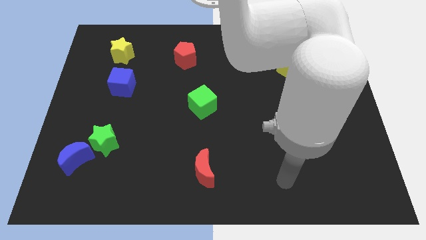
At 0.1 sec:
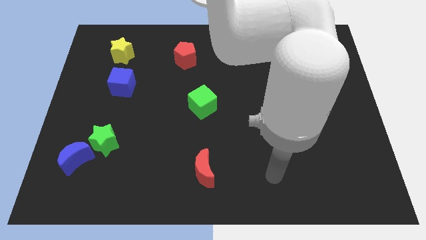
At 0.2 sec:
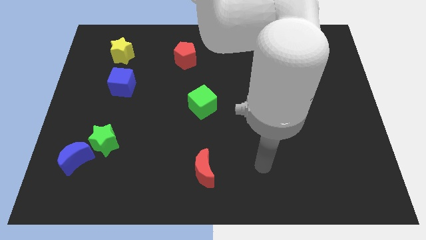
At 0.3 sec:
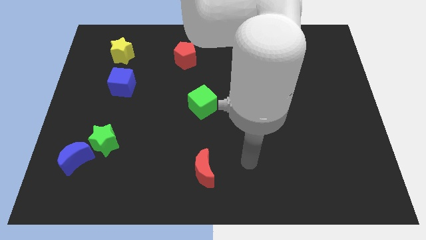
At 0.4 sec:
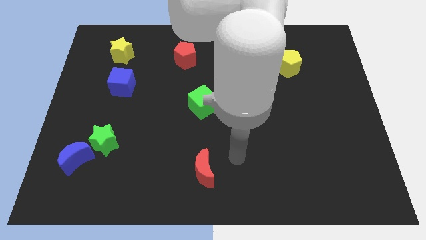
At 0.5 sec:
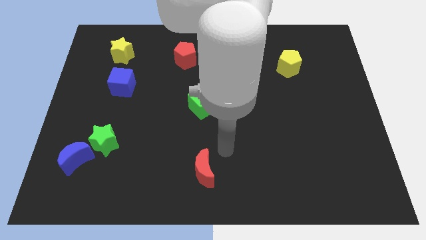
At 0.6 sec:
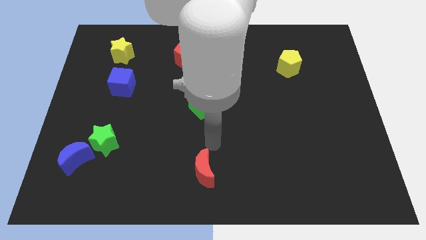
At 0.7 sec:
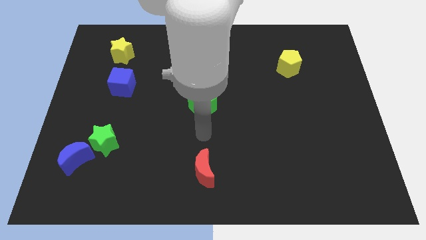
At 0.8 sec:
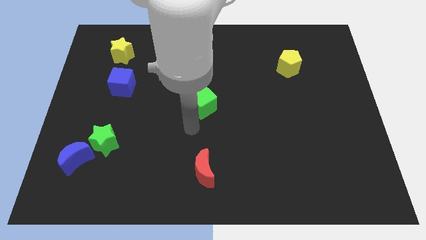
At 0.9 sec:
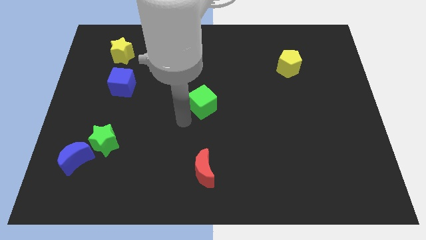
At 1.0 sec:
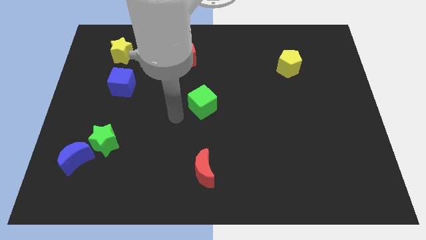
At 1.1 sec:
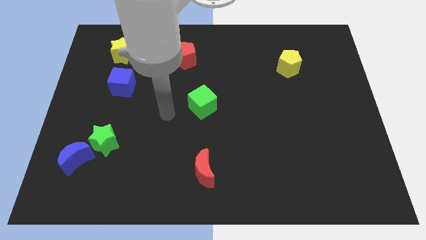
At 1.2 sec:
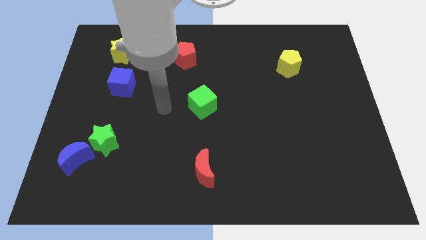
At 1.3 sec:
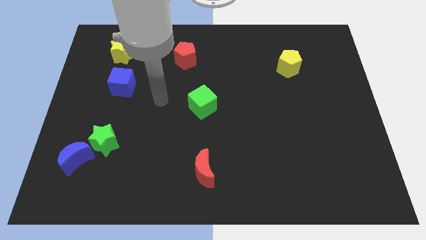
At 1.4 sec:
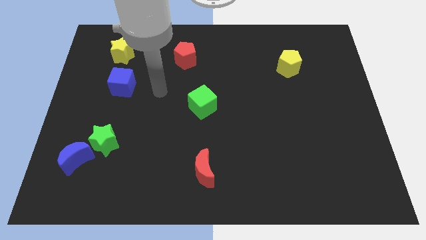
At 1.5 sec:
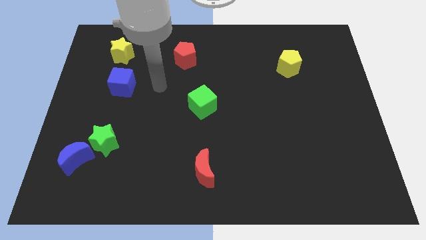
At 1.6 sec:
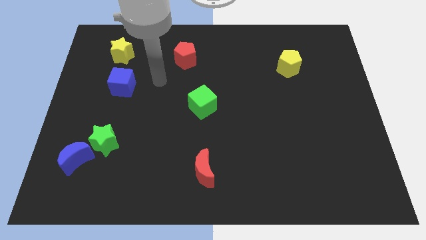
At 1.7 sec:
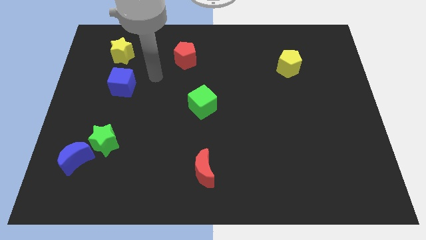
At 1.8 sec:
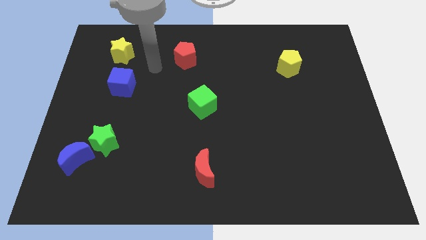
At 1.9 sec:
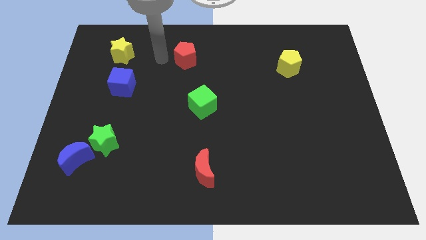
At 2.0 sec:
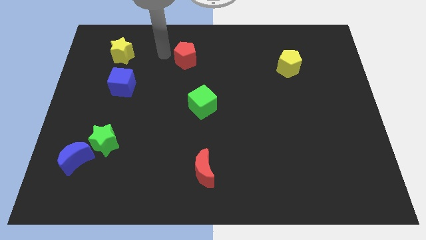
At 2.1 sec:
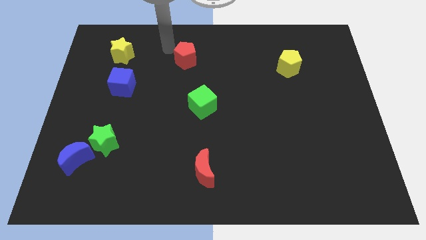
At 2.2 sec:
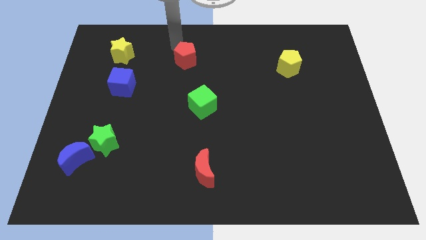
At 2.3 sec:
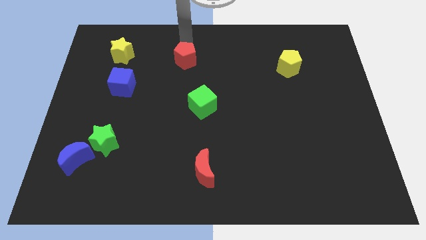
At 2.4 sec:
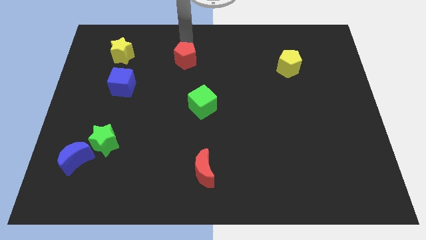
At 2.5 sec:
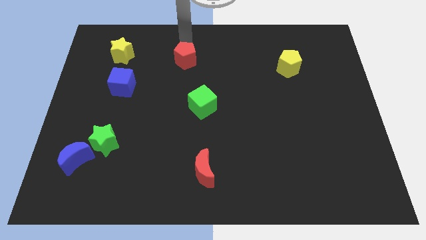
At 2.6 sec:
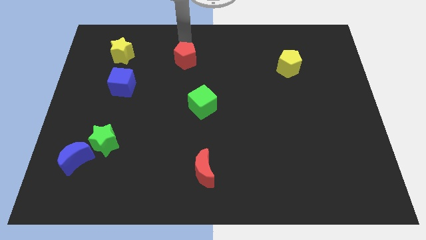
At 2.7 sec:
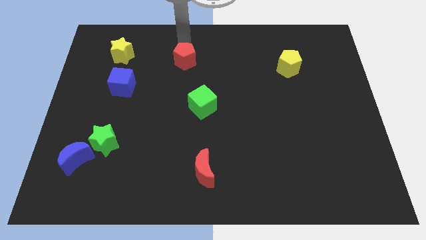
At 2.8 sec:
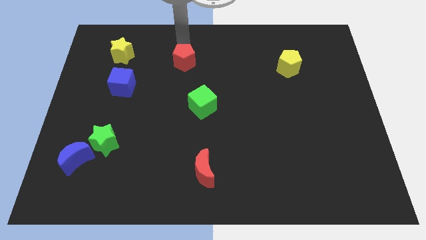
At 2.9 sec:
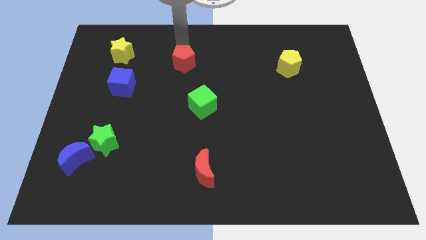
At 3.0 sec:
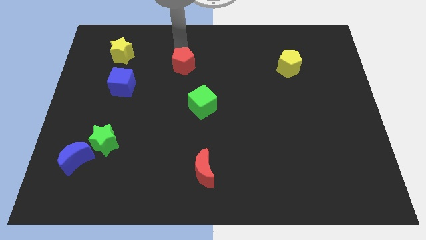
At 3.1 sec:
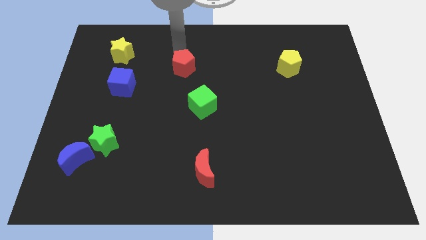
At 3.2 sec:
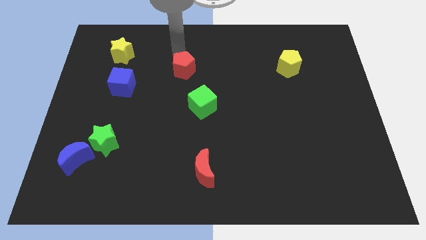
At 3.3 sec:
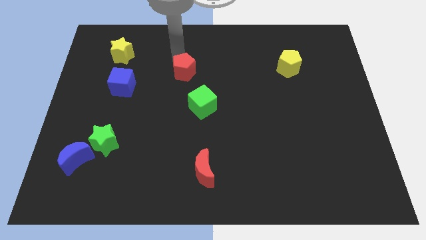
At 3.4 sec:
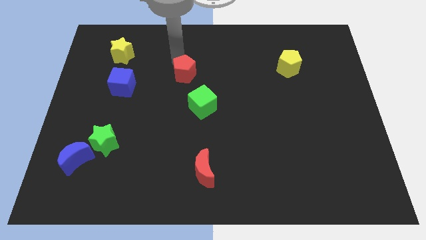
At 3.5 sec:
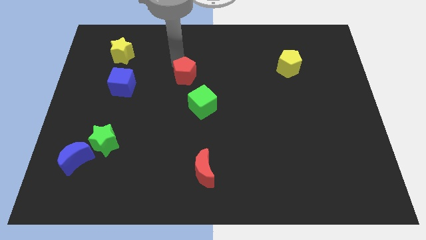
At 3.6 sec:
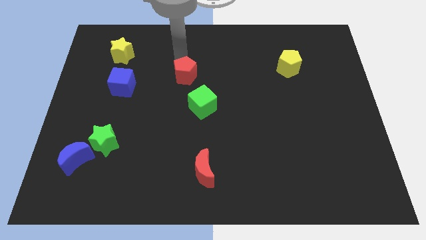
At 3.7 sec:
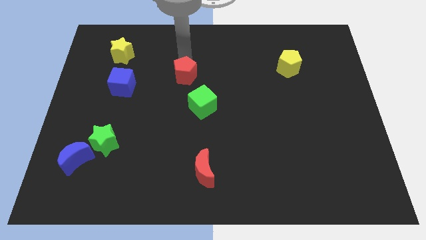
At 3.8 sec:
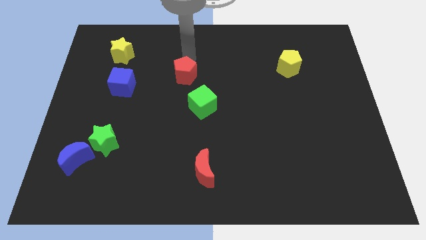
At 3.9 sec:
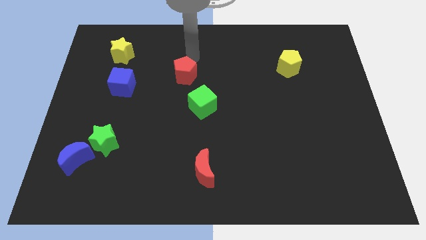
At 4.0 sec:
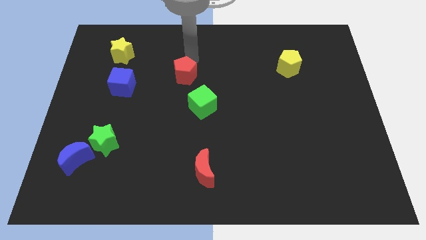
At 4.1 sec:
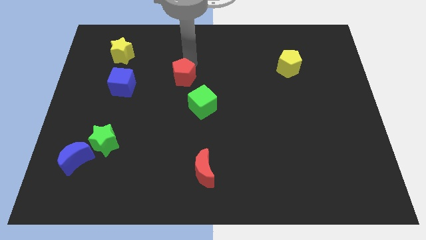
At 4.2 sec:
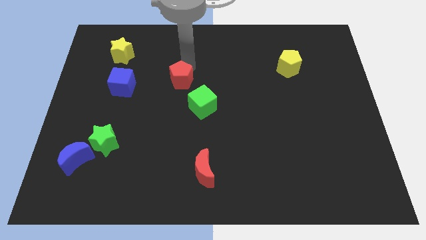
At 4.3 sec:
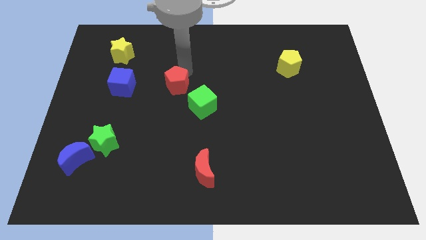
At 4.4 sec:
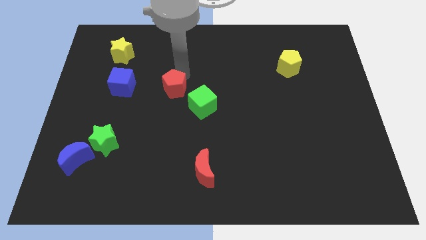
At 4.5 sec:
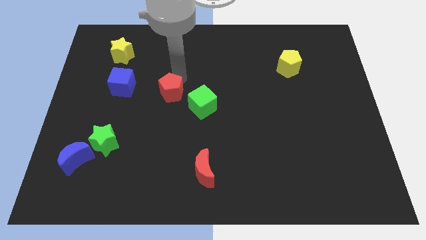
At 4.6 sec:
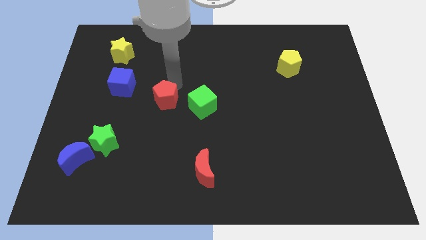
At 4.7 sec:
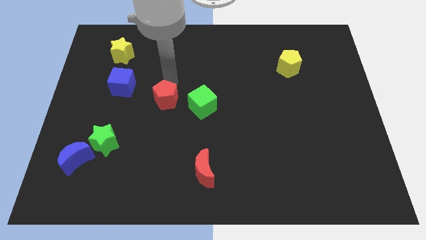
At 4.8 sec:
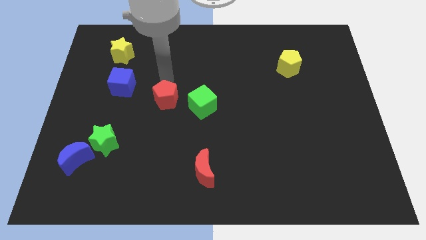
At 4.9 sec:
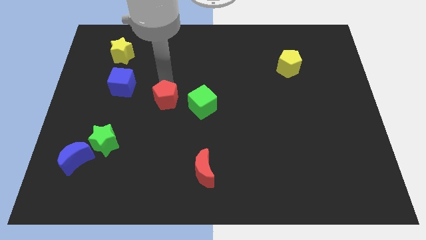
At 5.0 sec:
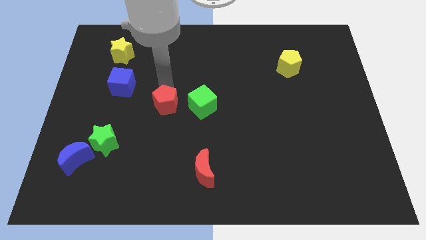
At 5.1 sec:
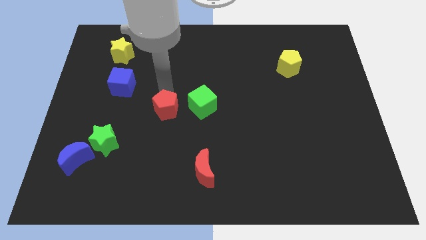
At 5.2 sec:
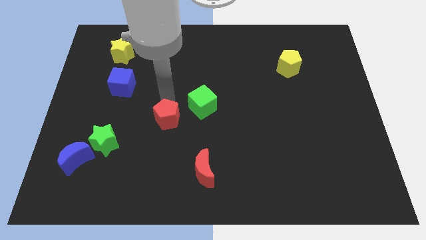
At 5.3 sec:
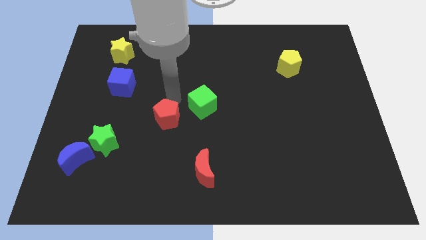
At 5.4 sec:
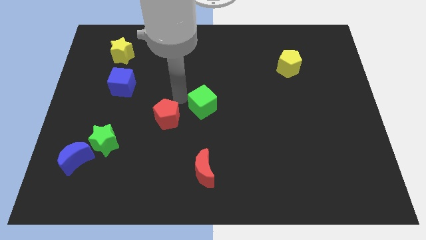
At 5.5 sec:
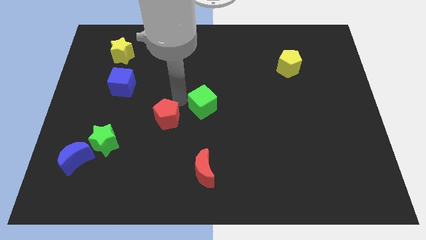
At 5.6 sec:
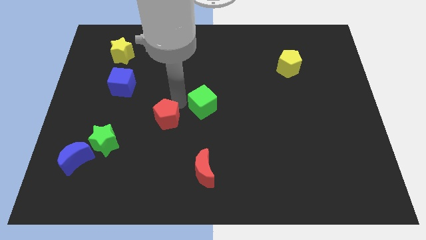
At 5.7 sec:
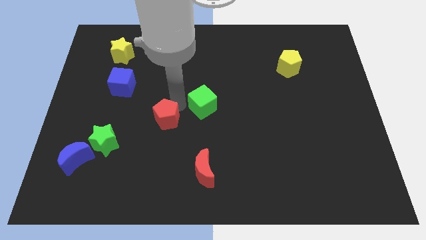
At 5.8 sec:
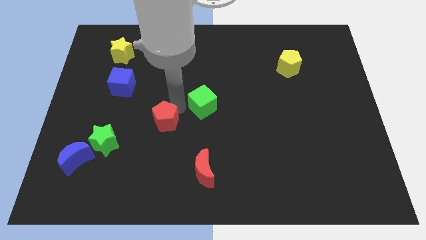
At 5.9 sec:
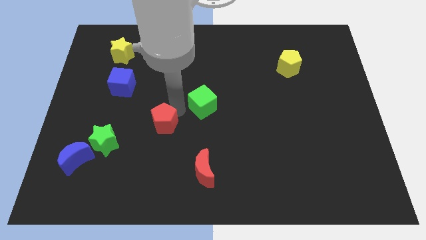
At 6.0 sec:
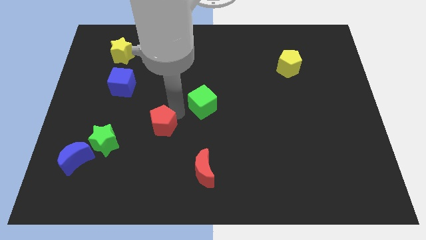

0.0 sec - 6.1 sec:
push the red pentagon to the right of the green star

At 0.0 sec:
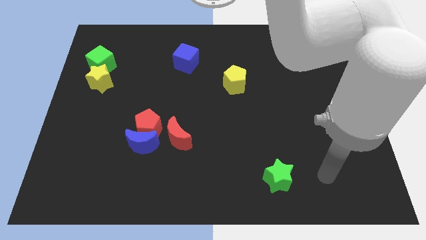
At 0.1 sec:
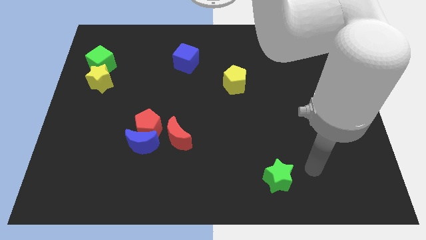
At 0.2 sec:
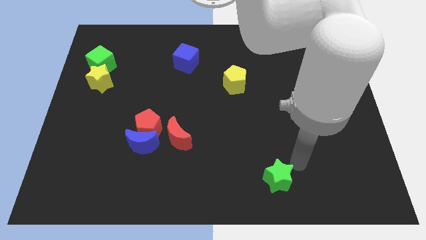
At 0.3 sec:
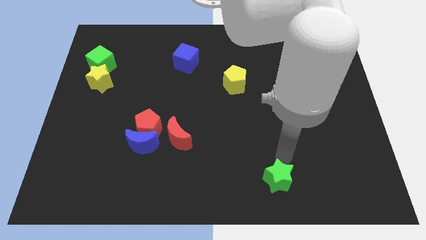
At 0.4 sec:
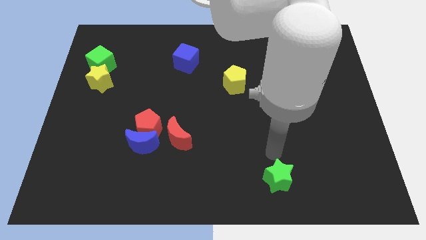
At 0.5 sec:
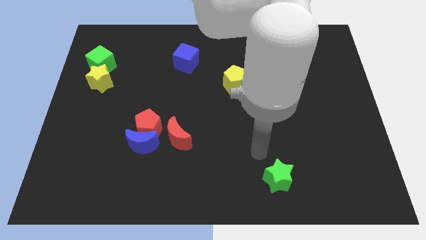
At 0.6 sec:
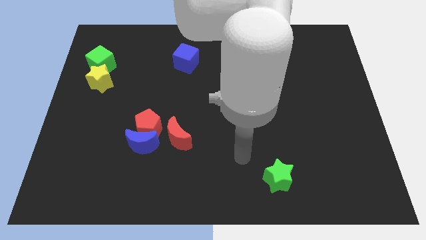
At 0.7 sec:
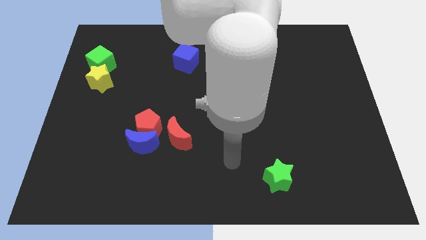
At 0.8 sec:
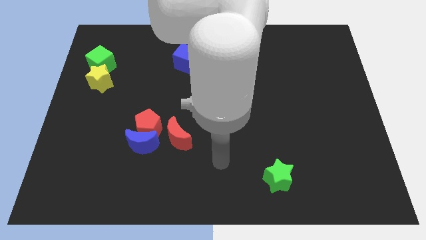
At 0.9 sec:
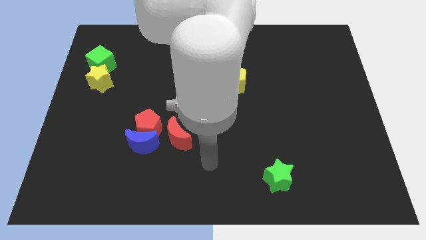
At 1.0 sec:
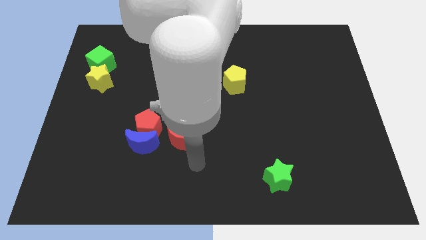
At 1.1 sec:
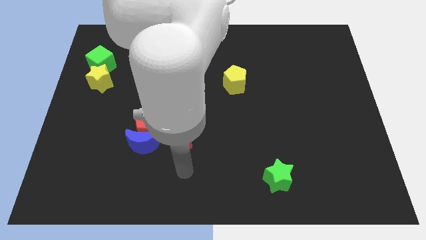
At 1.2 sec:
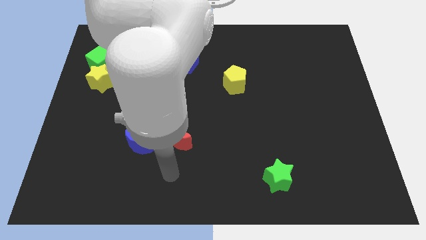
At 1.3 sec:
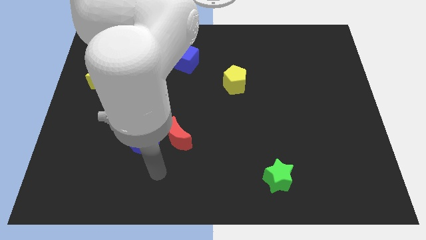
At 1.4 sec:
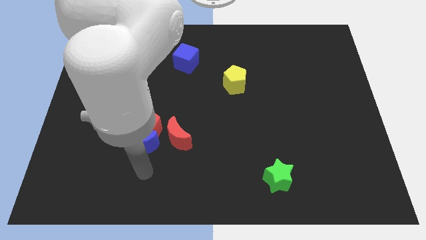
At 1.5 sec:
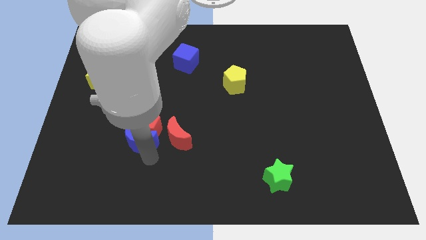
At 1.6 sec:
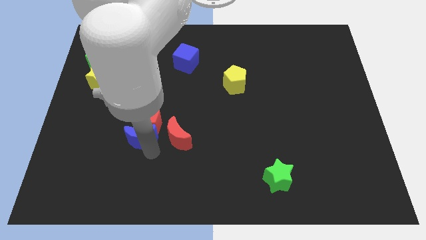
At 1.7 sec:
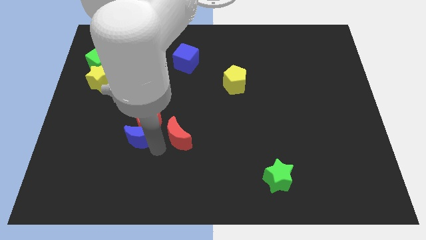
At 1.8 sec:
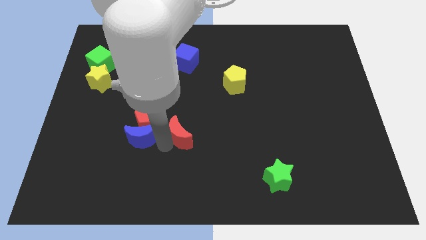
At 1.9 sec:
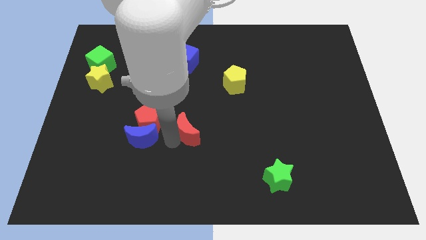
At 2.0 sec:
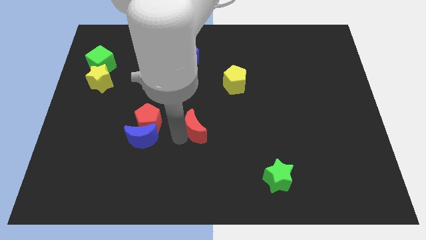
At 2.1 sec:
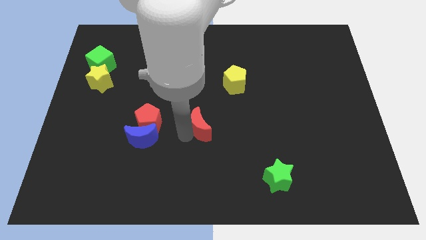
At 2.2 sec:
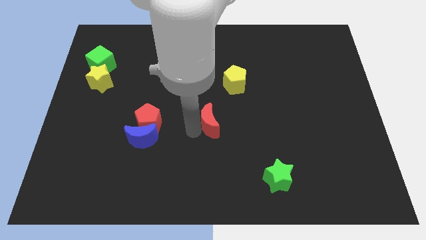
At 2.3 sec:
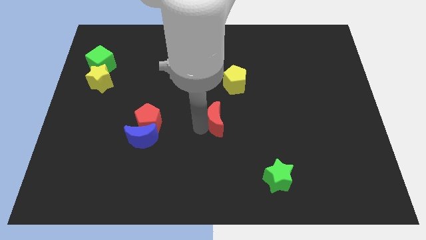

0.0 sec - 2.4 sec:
put the red moon to the bottom of the yellow pentagon
